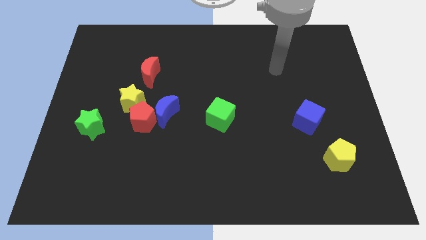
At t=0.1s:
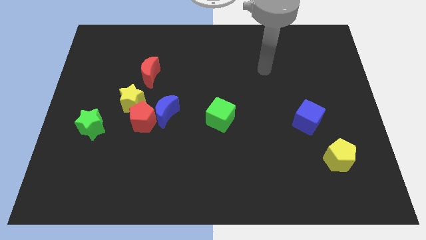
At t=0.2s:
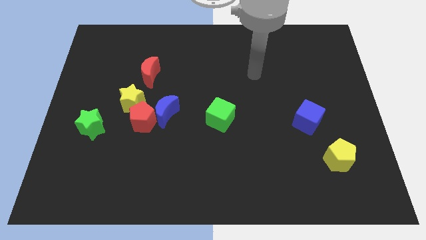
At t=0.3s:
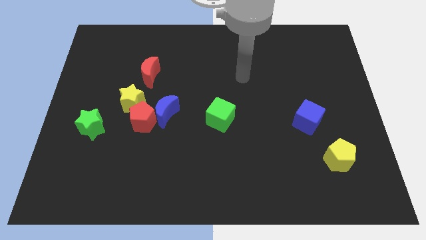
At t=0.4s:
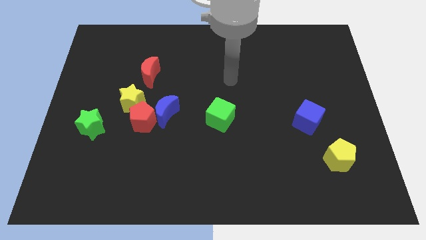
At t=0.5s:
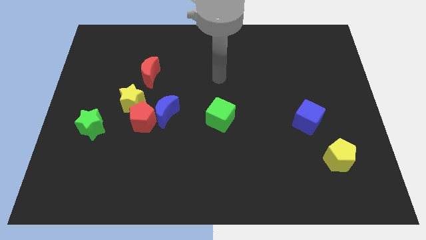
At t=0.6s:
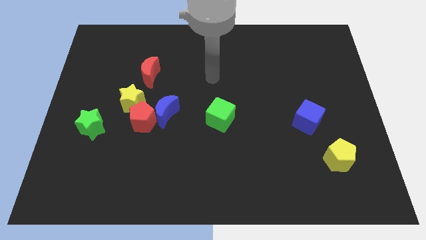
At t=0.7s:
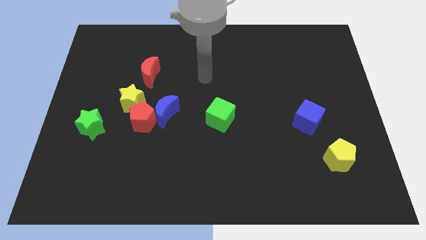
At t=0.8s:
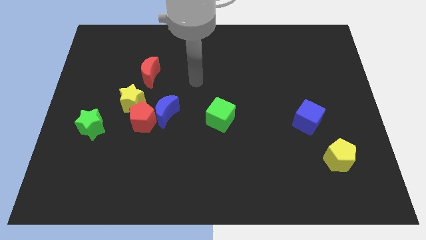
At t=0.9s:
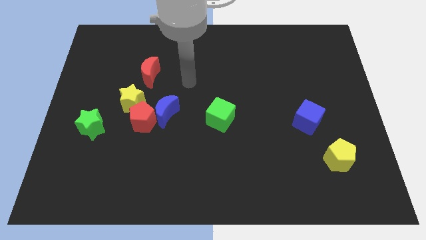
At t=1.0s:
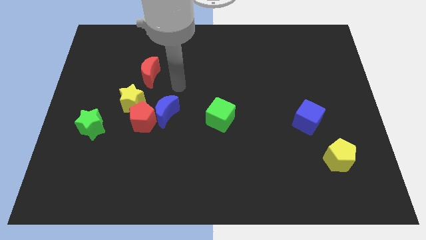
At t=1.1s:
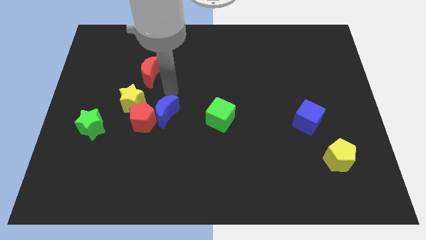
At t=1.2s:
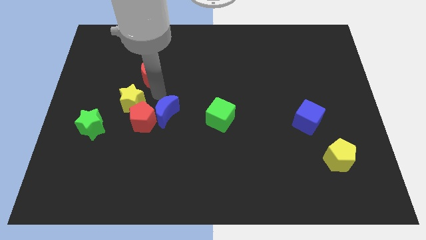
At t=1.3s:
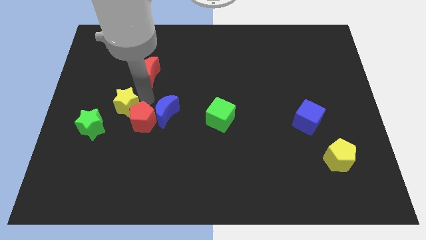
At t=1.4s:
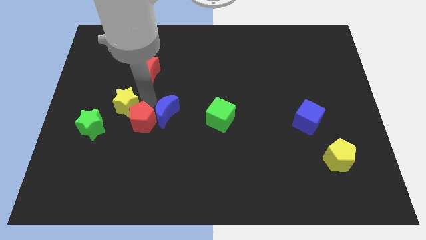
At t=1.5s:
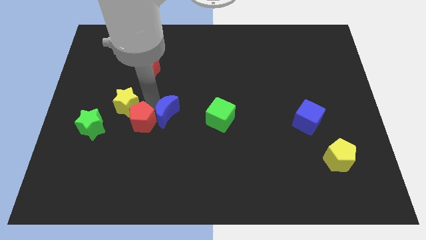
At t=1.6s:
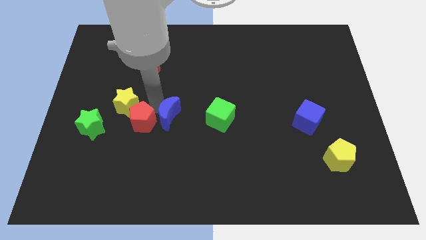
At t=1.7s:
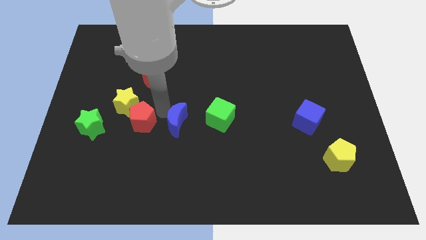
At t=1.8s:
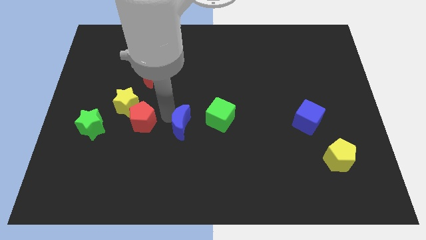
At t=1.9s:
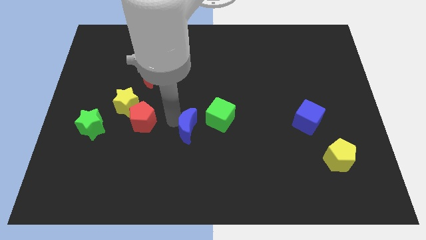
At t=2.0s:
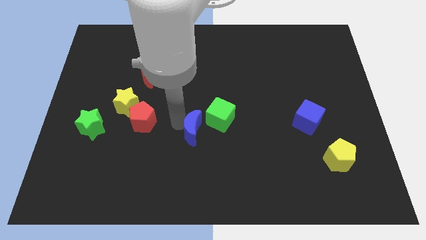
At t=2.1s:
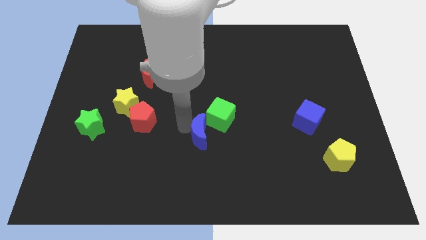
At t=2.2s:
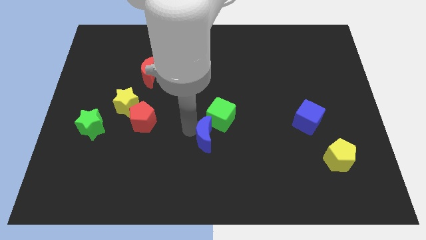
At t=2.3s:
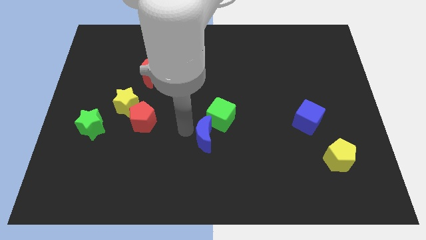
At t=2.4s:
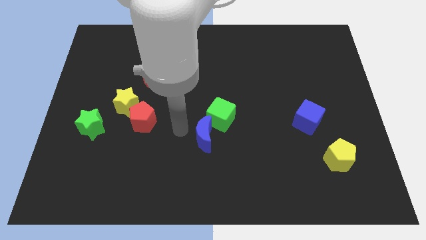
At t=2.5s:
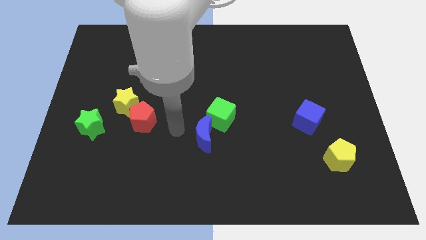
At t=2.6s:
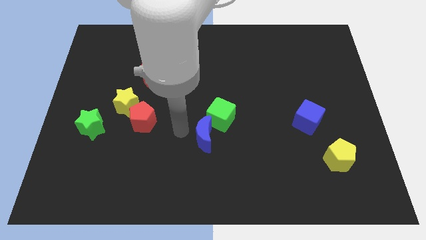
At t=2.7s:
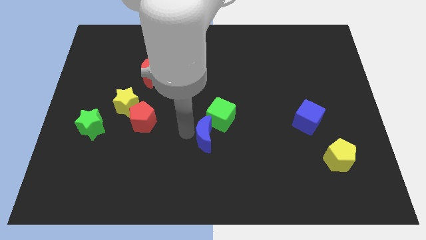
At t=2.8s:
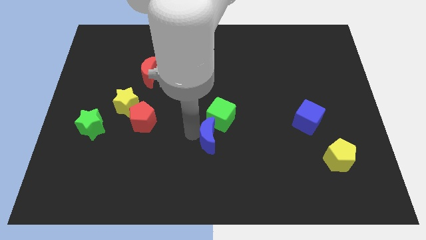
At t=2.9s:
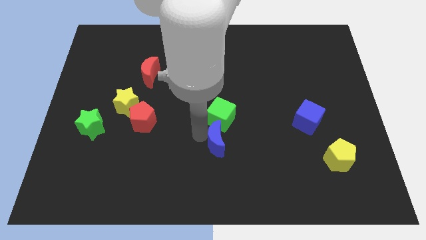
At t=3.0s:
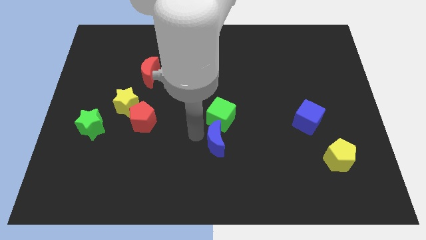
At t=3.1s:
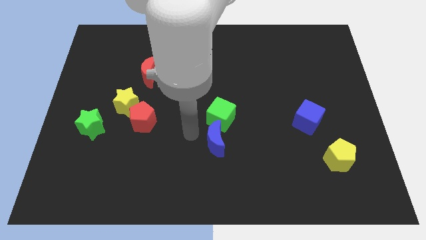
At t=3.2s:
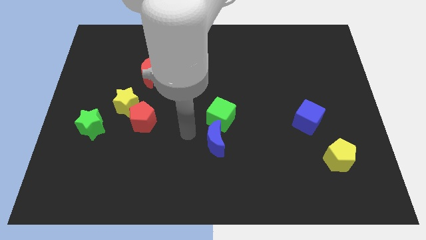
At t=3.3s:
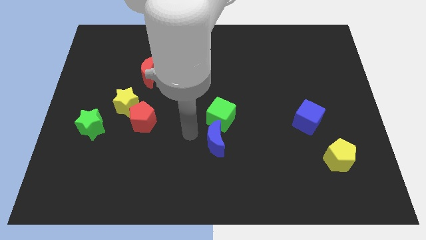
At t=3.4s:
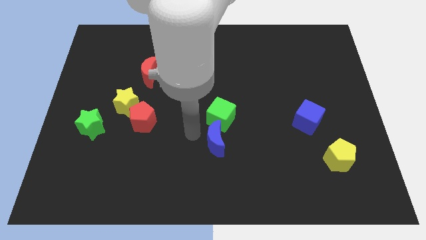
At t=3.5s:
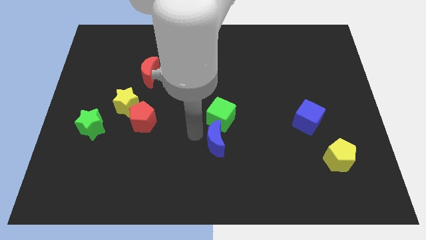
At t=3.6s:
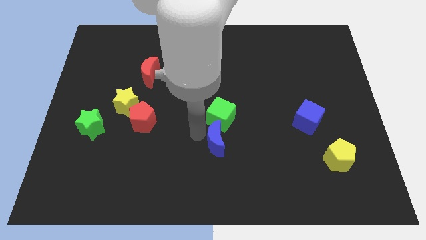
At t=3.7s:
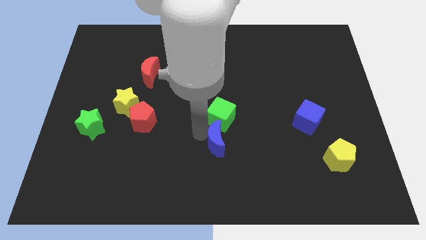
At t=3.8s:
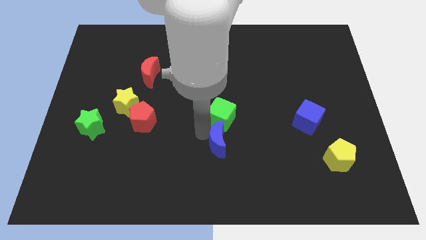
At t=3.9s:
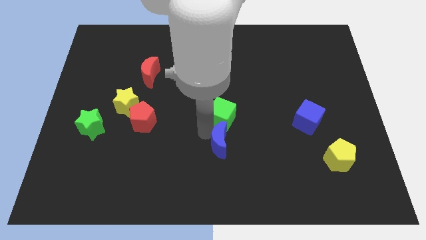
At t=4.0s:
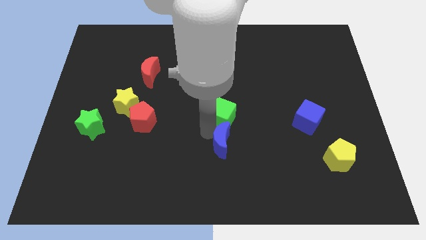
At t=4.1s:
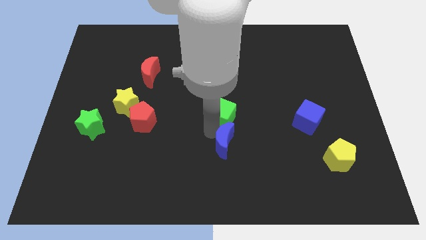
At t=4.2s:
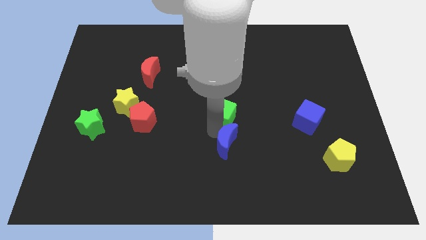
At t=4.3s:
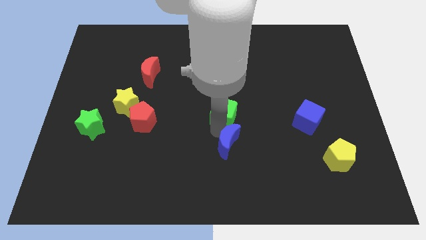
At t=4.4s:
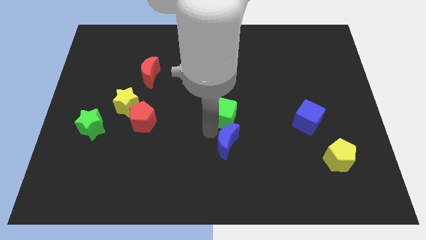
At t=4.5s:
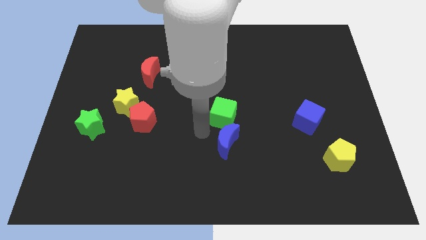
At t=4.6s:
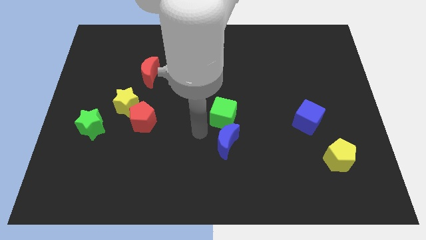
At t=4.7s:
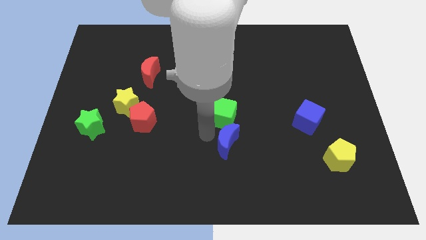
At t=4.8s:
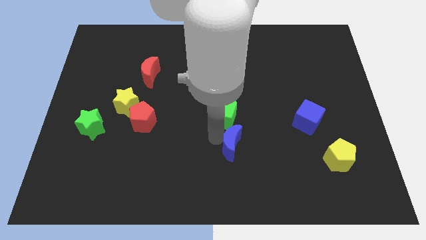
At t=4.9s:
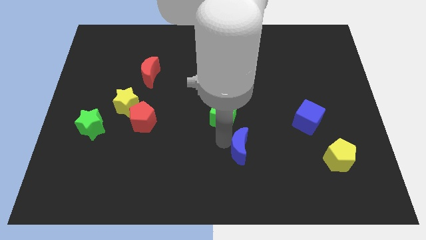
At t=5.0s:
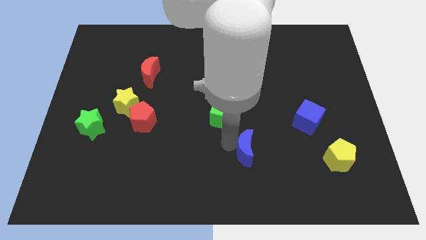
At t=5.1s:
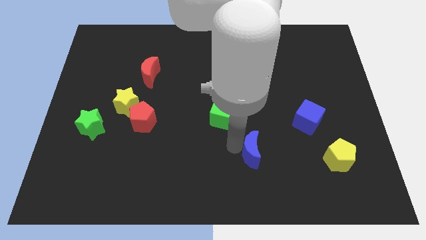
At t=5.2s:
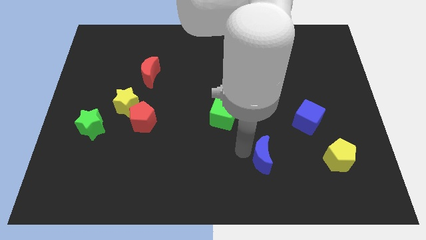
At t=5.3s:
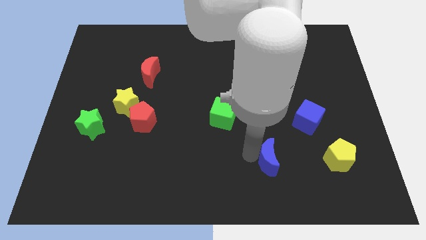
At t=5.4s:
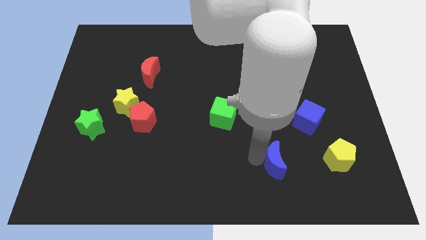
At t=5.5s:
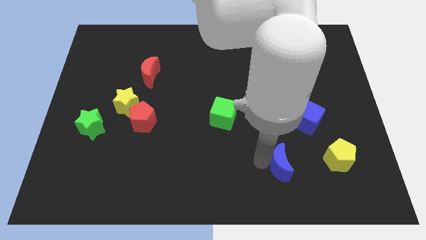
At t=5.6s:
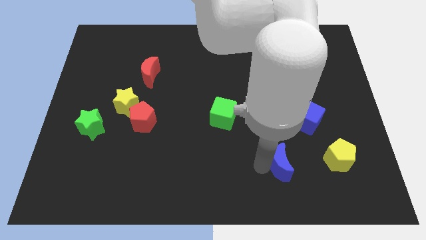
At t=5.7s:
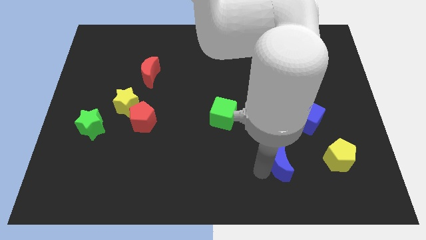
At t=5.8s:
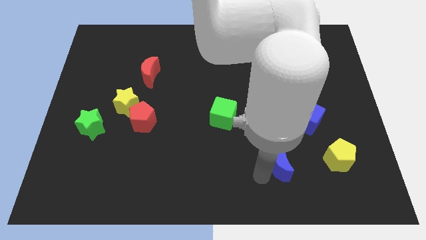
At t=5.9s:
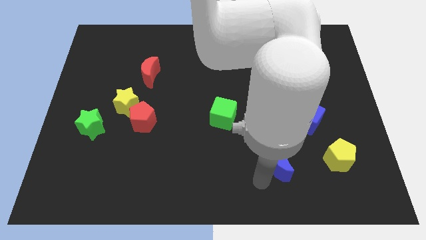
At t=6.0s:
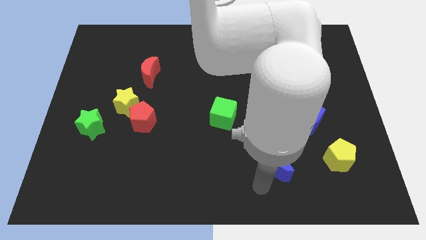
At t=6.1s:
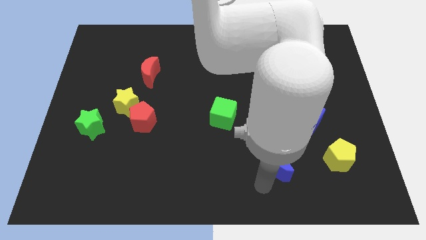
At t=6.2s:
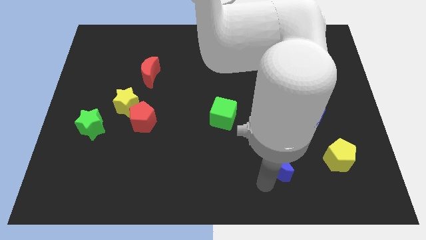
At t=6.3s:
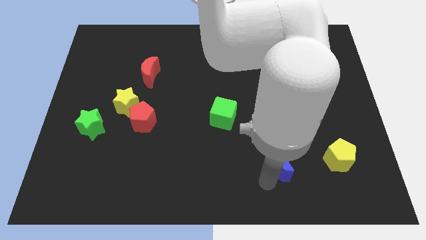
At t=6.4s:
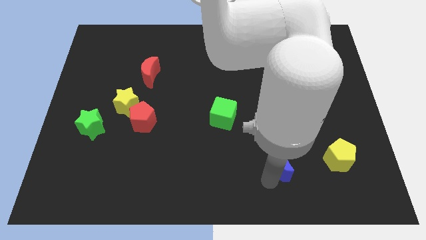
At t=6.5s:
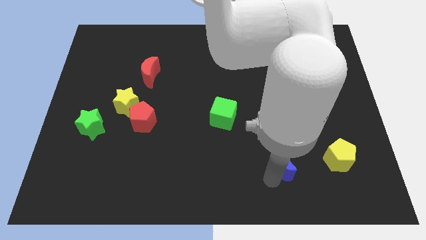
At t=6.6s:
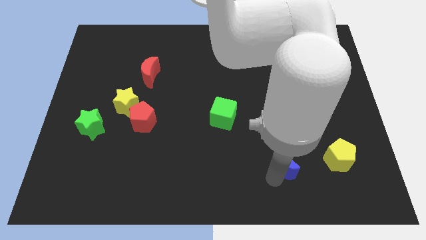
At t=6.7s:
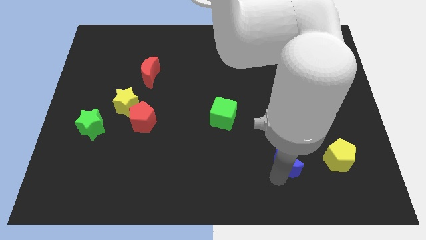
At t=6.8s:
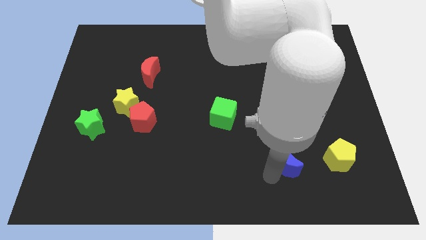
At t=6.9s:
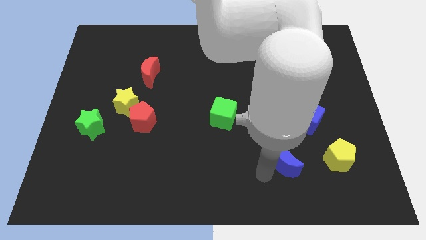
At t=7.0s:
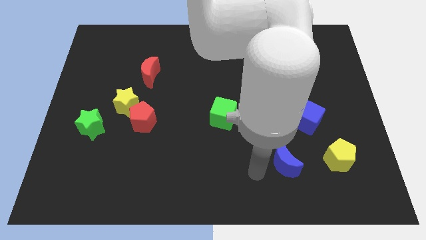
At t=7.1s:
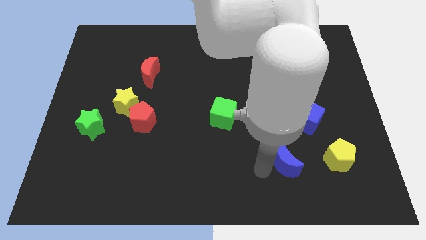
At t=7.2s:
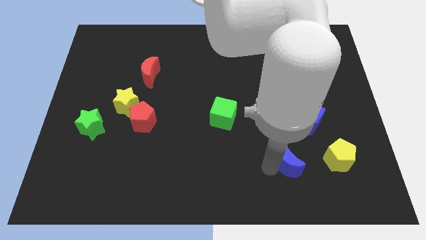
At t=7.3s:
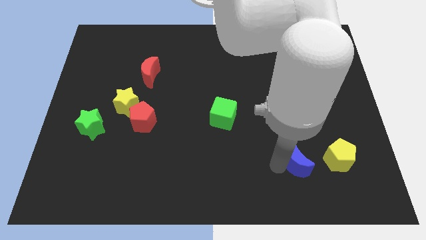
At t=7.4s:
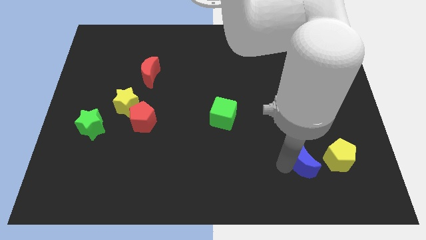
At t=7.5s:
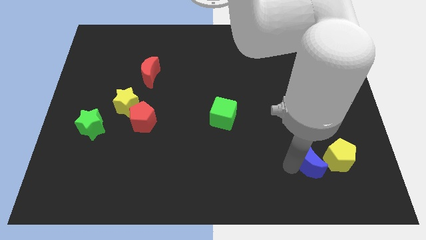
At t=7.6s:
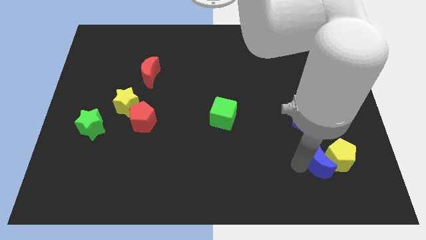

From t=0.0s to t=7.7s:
slide the blue moon close to the yellow pentagon

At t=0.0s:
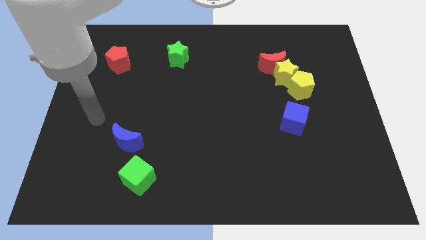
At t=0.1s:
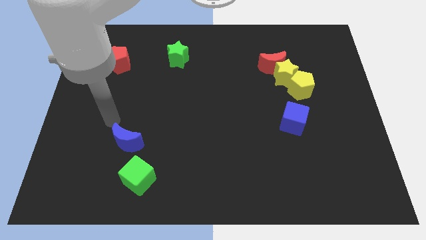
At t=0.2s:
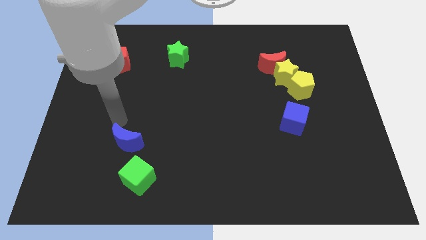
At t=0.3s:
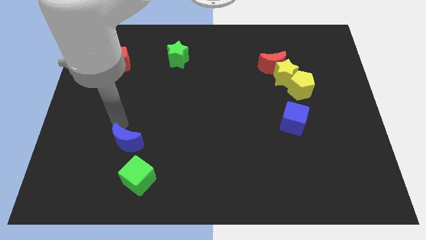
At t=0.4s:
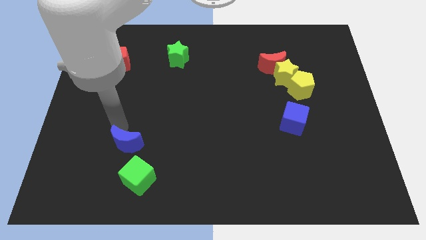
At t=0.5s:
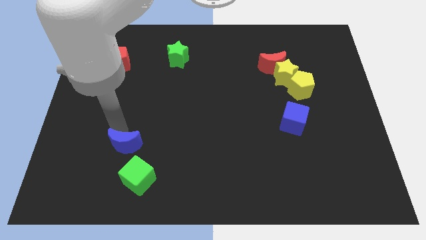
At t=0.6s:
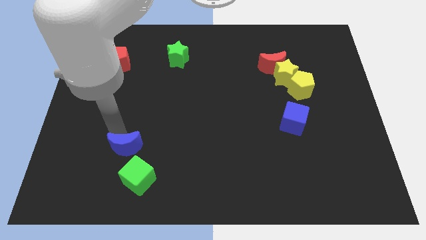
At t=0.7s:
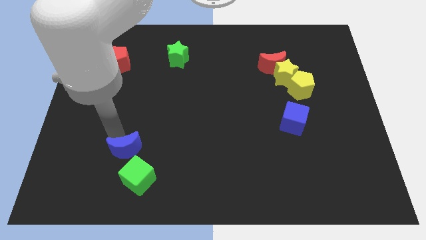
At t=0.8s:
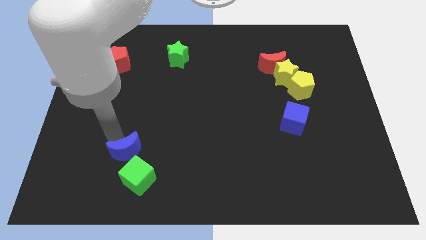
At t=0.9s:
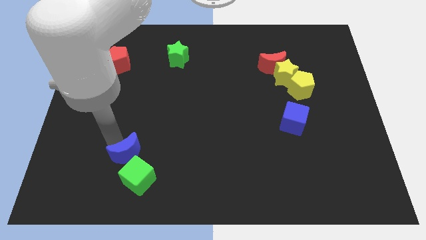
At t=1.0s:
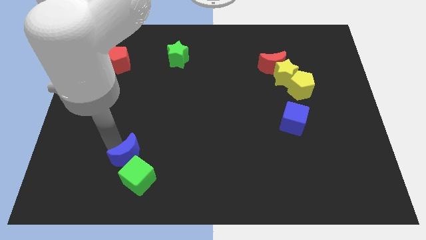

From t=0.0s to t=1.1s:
slide the blue moon close to the green cube
